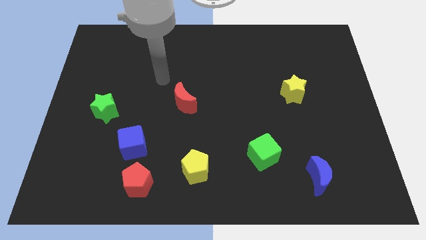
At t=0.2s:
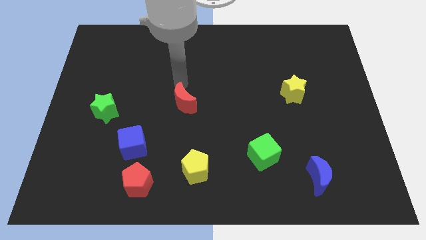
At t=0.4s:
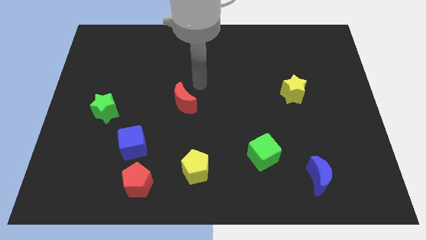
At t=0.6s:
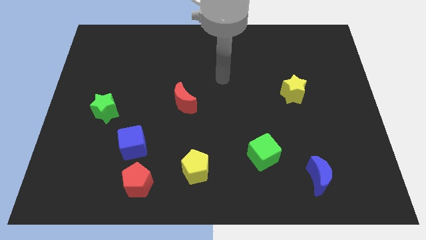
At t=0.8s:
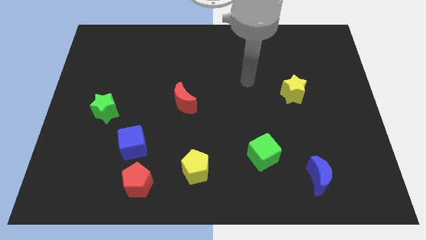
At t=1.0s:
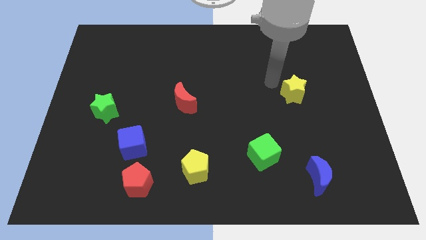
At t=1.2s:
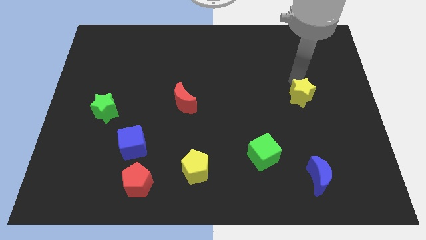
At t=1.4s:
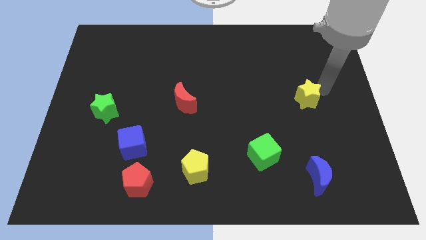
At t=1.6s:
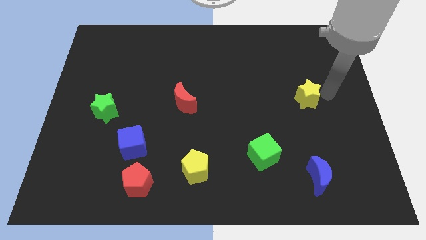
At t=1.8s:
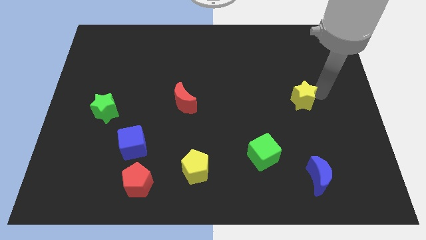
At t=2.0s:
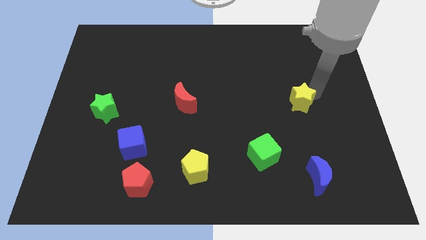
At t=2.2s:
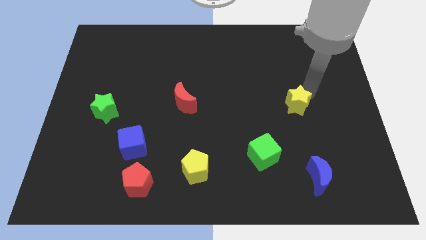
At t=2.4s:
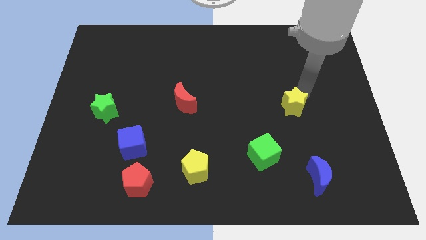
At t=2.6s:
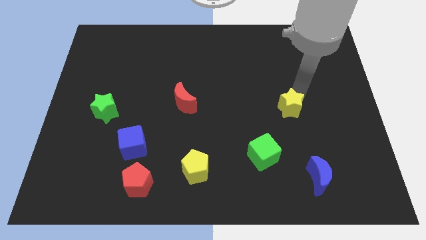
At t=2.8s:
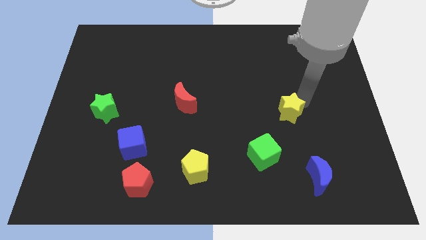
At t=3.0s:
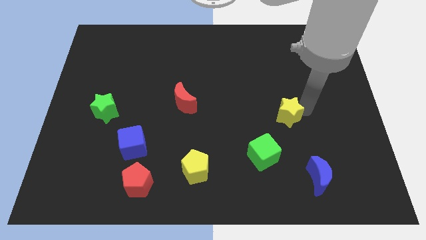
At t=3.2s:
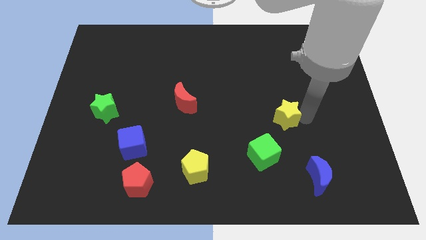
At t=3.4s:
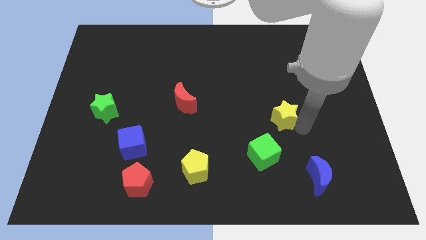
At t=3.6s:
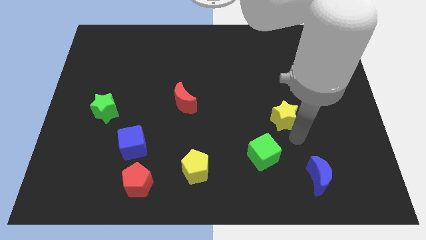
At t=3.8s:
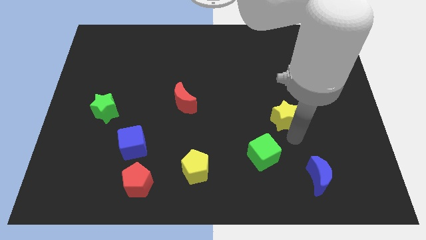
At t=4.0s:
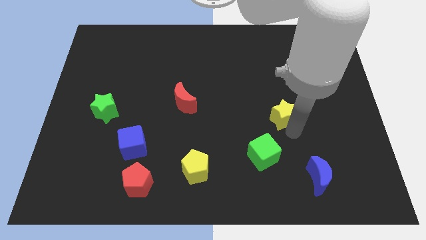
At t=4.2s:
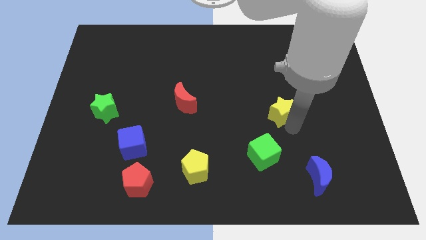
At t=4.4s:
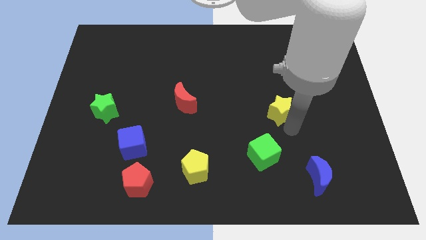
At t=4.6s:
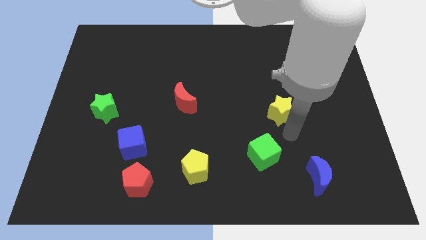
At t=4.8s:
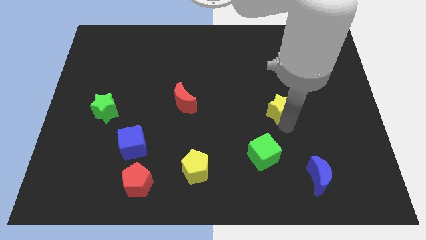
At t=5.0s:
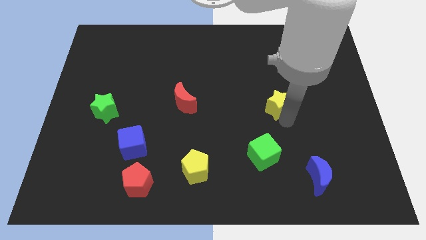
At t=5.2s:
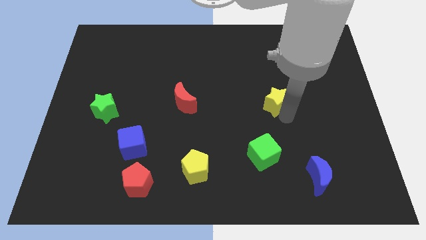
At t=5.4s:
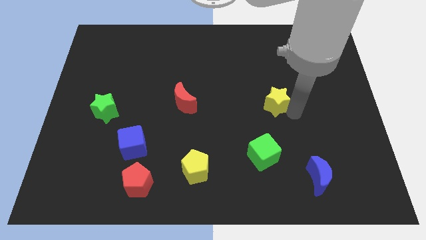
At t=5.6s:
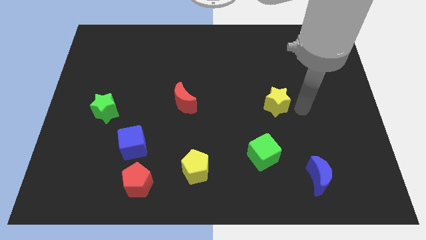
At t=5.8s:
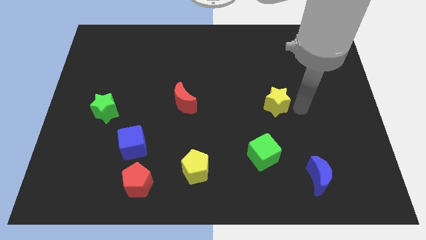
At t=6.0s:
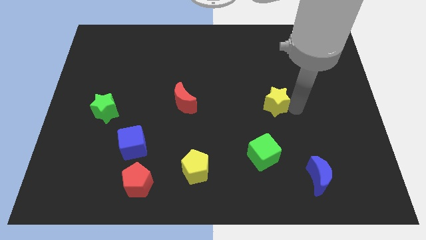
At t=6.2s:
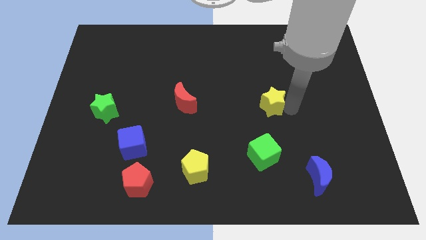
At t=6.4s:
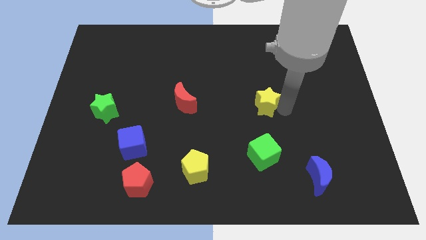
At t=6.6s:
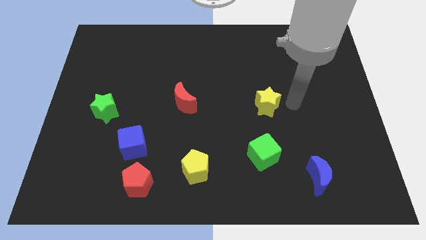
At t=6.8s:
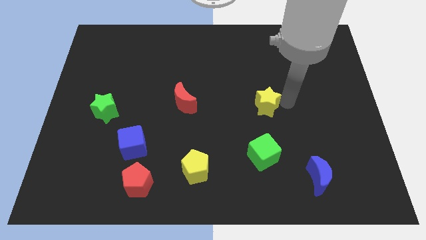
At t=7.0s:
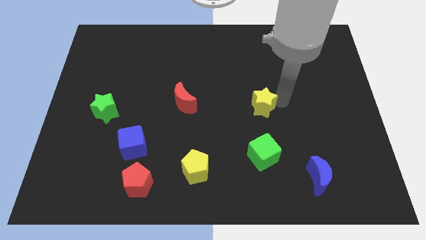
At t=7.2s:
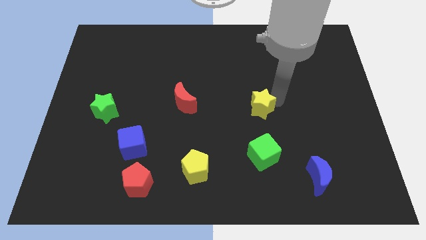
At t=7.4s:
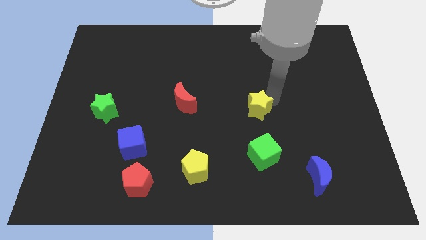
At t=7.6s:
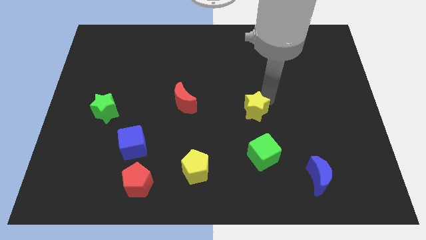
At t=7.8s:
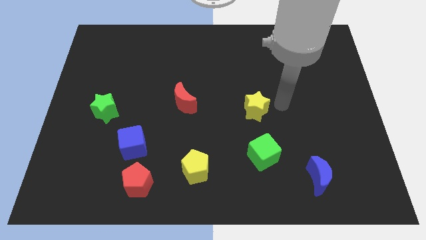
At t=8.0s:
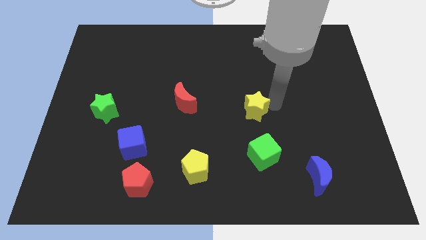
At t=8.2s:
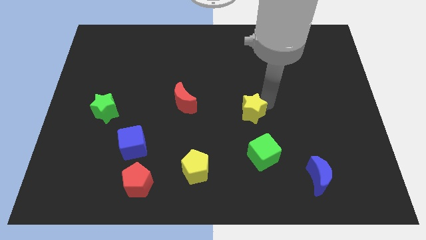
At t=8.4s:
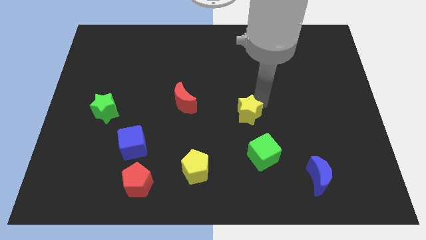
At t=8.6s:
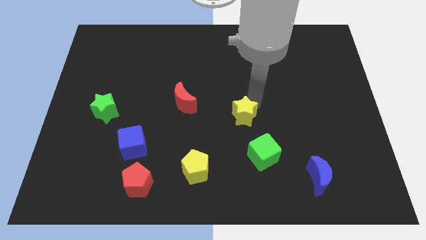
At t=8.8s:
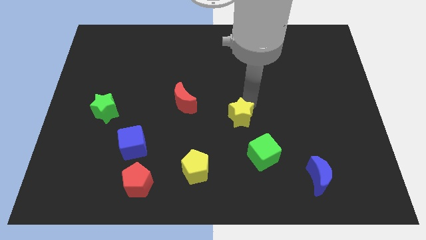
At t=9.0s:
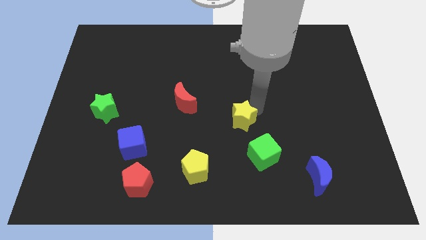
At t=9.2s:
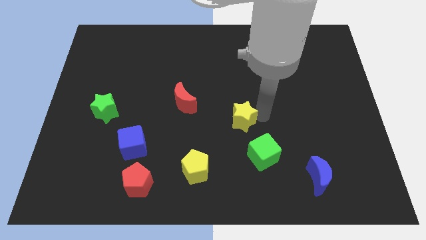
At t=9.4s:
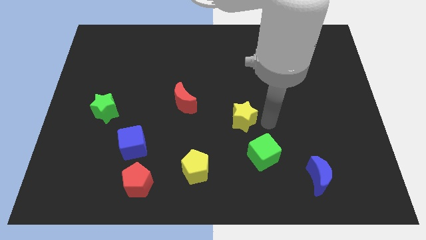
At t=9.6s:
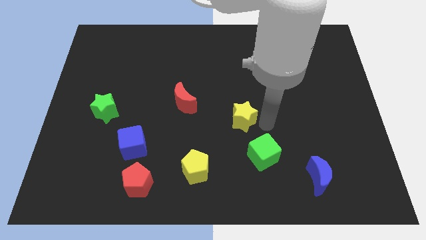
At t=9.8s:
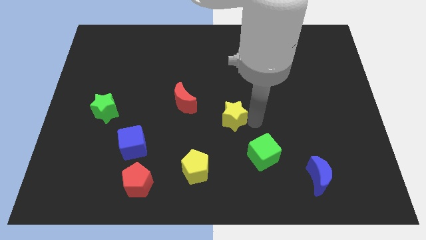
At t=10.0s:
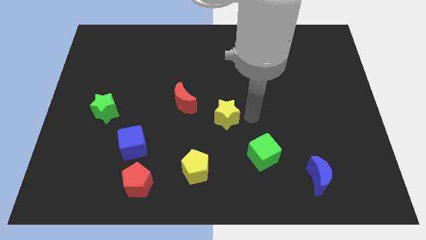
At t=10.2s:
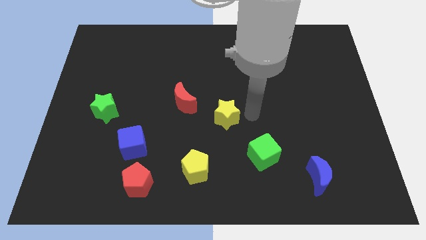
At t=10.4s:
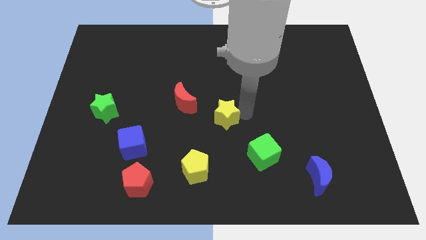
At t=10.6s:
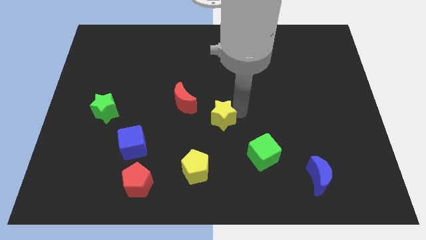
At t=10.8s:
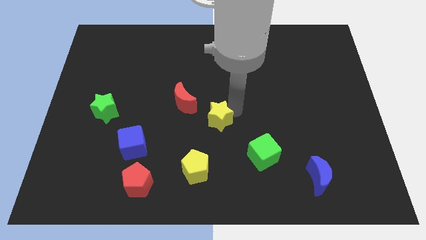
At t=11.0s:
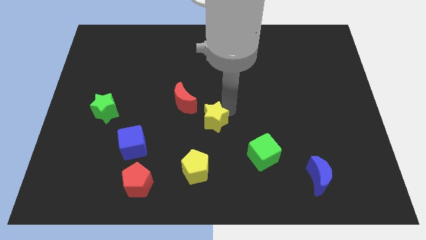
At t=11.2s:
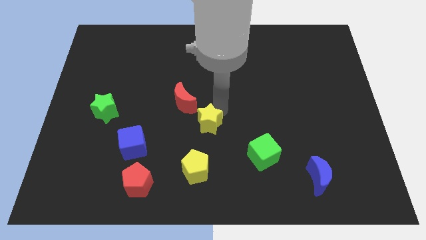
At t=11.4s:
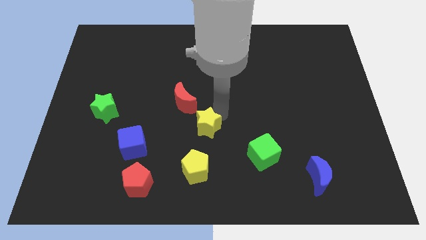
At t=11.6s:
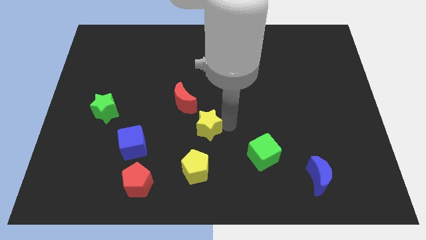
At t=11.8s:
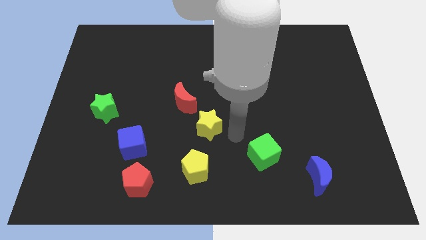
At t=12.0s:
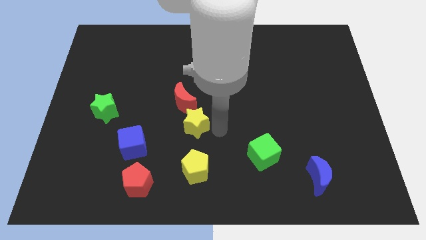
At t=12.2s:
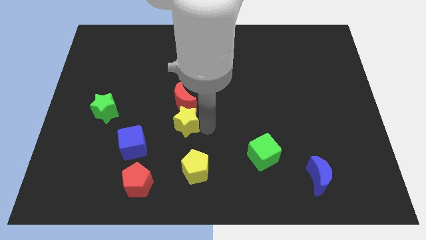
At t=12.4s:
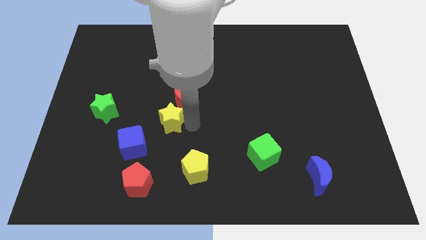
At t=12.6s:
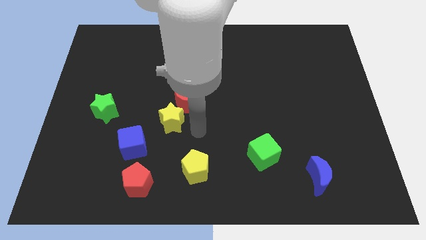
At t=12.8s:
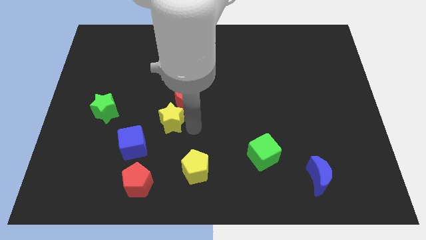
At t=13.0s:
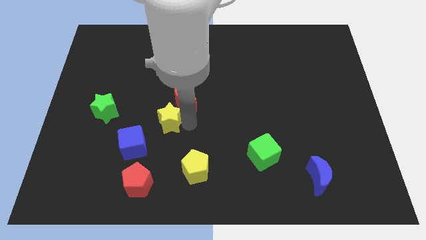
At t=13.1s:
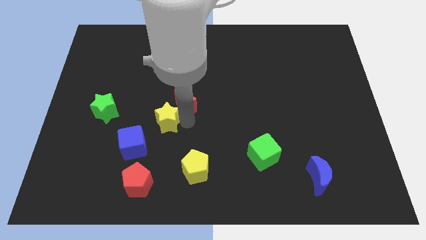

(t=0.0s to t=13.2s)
push the yellow star to the right of the green star

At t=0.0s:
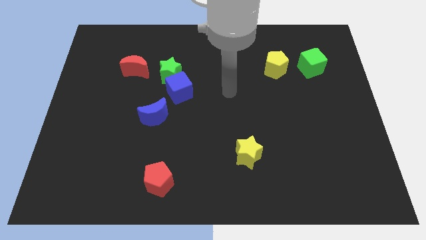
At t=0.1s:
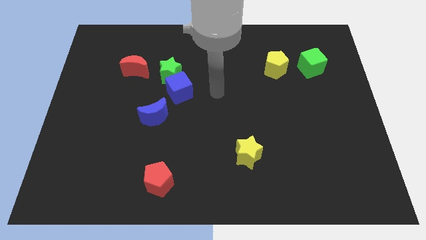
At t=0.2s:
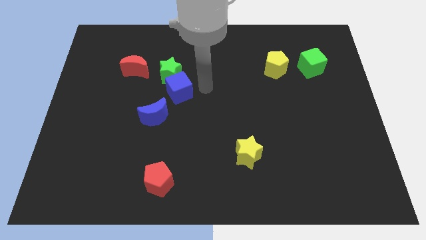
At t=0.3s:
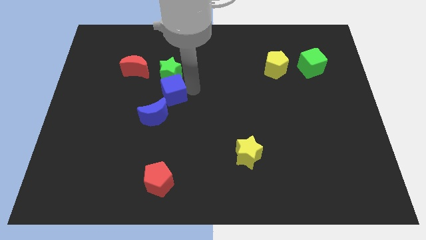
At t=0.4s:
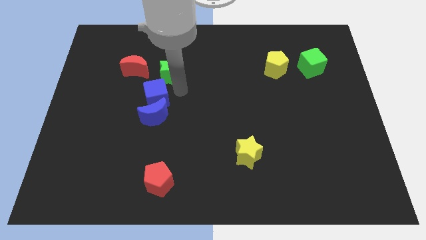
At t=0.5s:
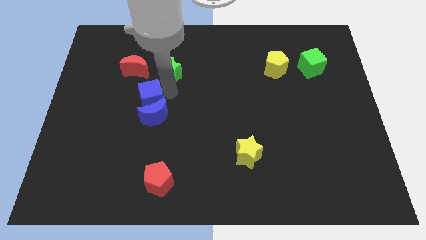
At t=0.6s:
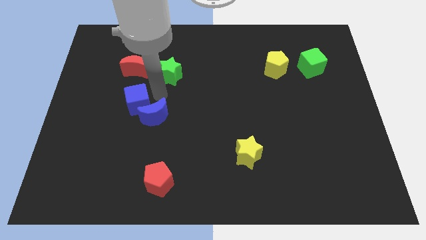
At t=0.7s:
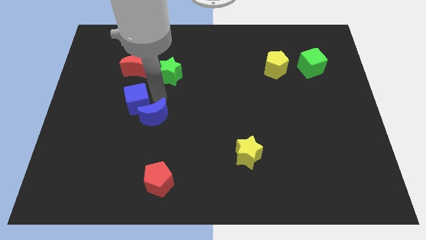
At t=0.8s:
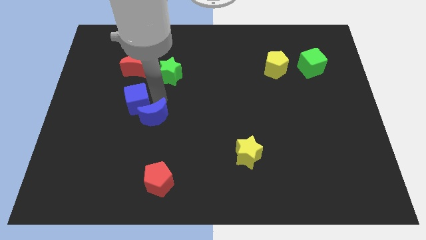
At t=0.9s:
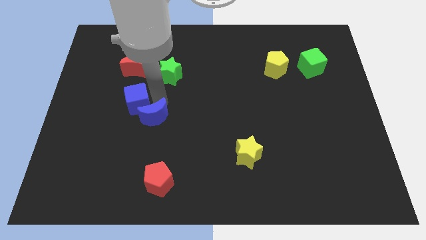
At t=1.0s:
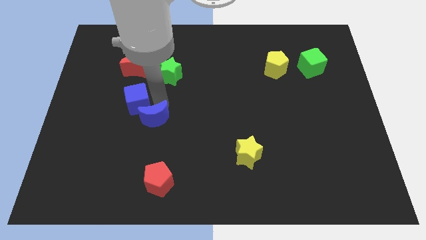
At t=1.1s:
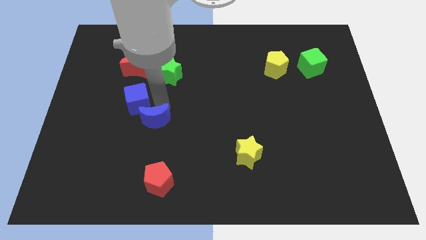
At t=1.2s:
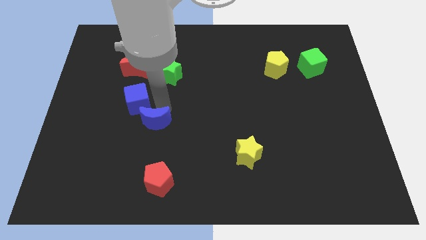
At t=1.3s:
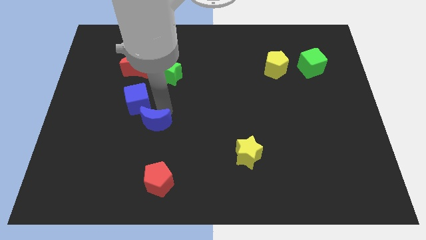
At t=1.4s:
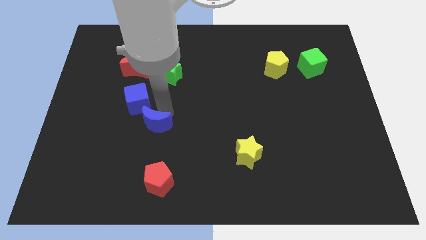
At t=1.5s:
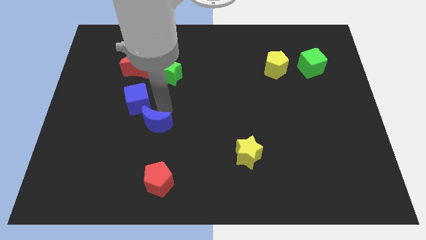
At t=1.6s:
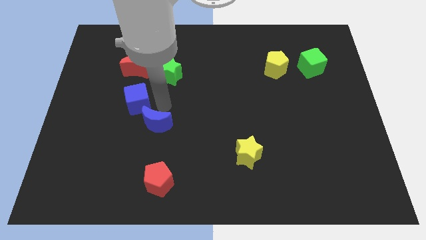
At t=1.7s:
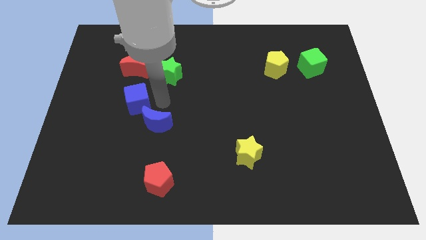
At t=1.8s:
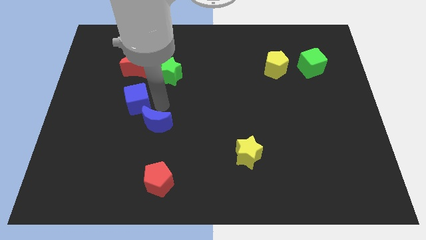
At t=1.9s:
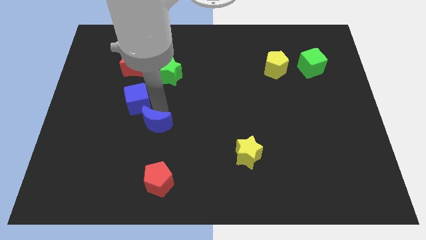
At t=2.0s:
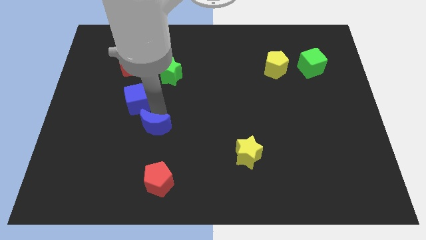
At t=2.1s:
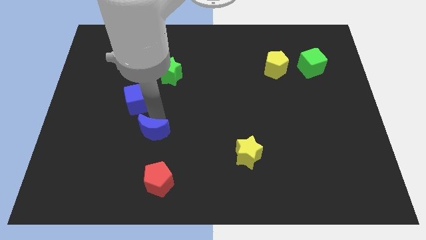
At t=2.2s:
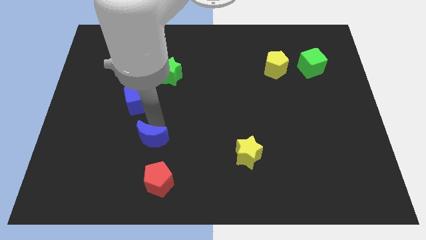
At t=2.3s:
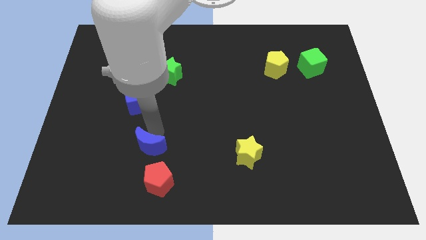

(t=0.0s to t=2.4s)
put the blue moon to the top left of the red pentagon
